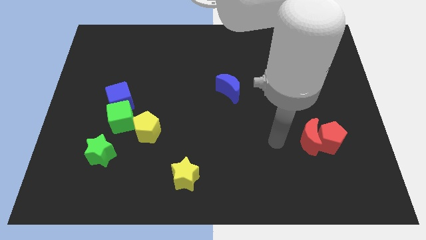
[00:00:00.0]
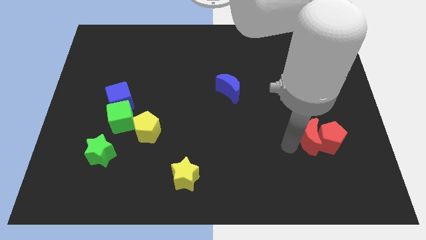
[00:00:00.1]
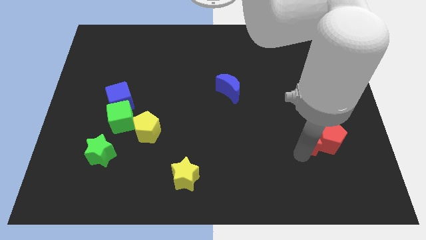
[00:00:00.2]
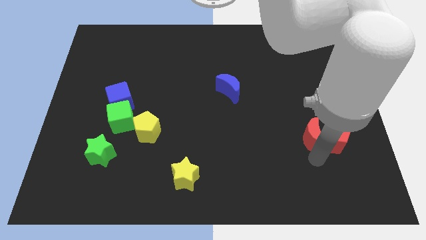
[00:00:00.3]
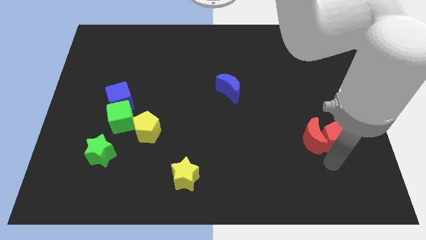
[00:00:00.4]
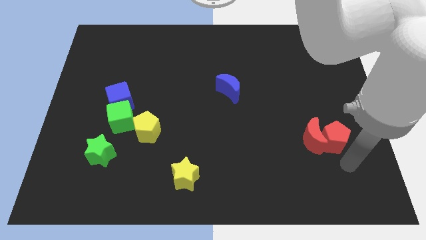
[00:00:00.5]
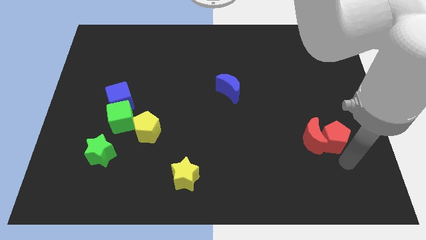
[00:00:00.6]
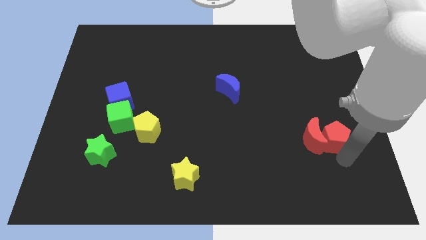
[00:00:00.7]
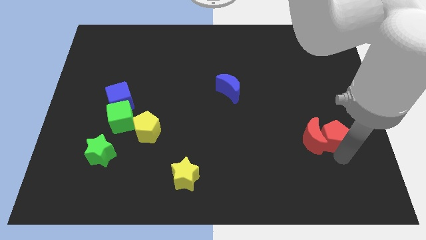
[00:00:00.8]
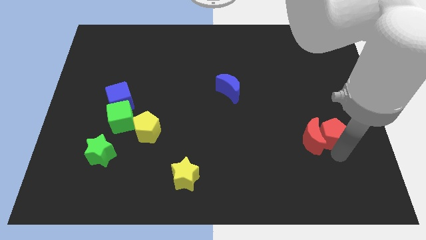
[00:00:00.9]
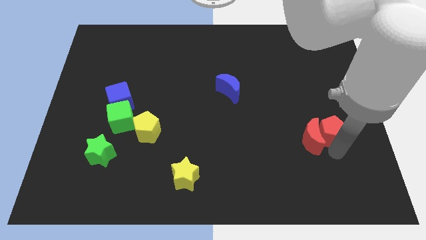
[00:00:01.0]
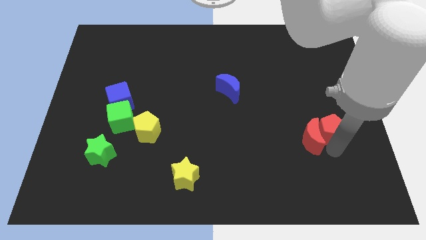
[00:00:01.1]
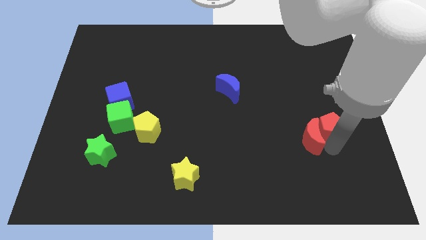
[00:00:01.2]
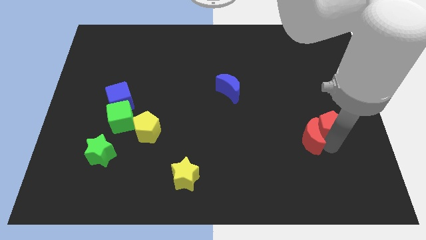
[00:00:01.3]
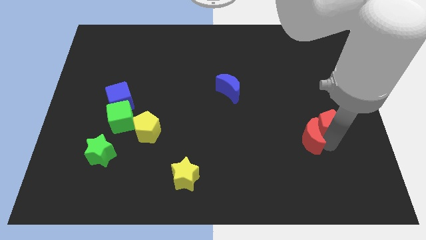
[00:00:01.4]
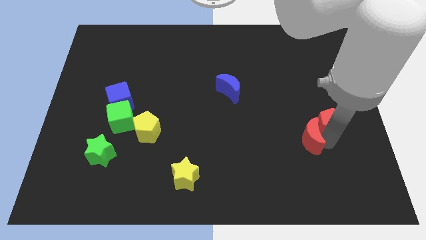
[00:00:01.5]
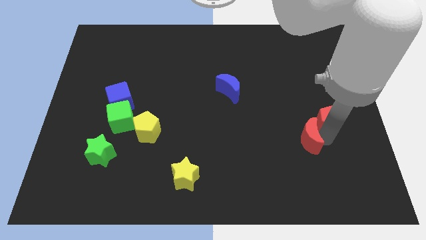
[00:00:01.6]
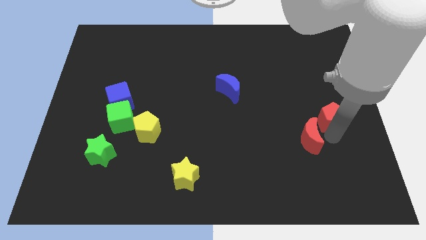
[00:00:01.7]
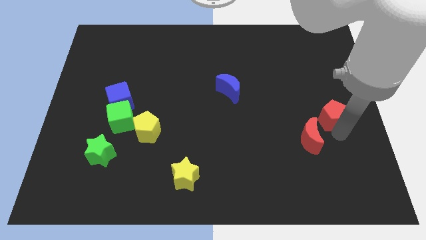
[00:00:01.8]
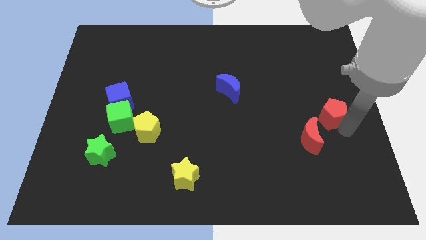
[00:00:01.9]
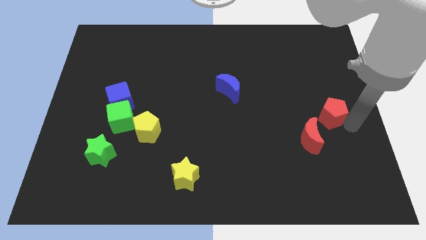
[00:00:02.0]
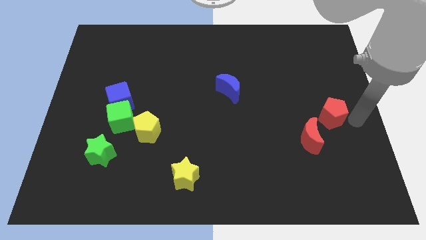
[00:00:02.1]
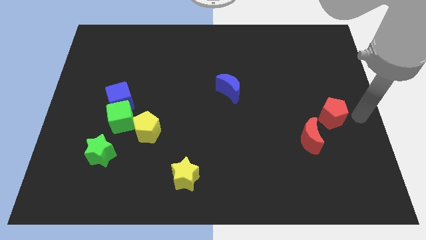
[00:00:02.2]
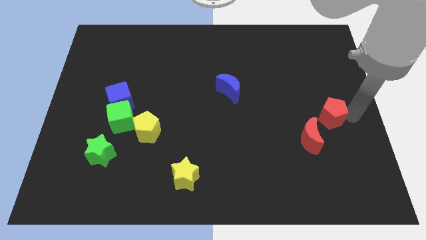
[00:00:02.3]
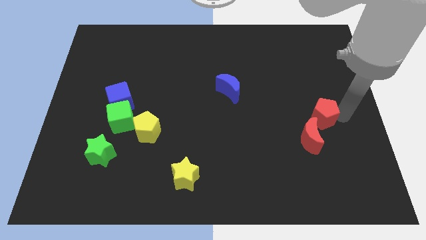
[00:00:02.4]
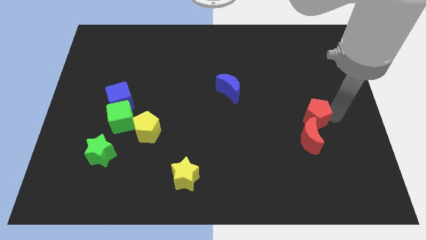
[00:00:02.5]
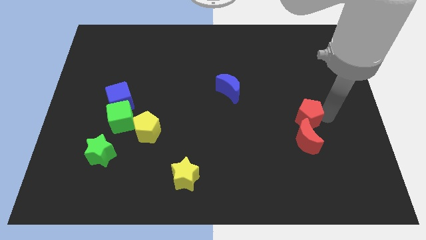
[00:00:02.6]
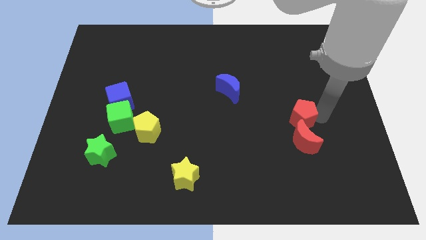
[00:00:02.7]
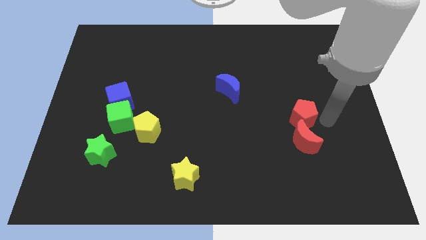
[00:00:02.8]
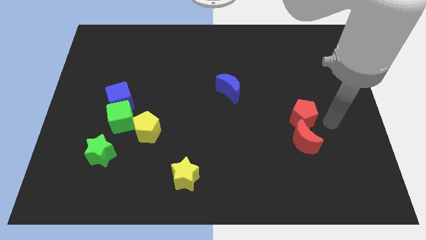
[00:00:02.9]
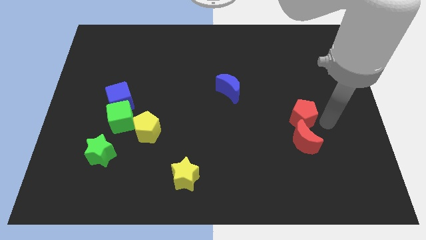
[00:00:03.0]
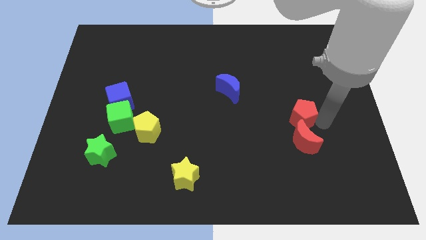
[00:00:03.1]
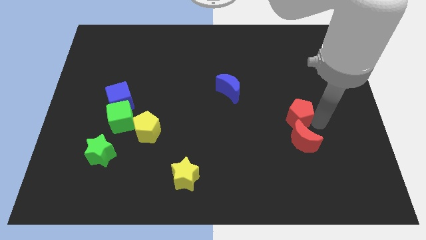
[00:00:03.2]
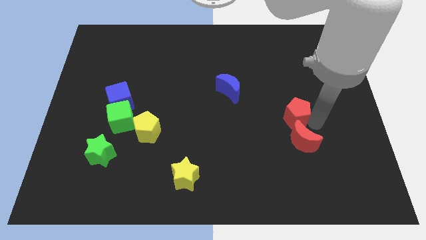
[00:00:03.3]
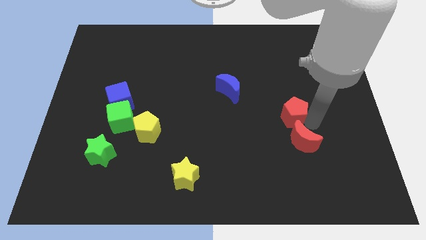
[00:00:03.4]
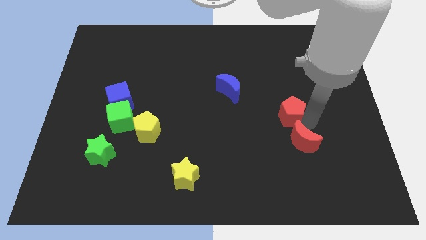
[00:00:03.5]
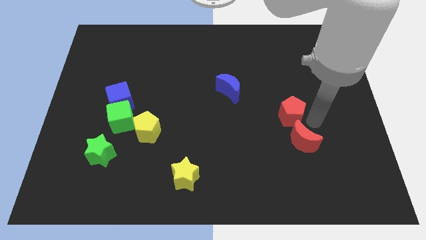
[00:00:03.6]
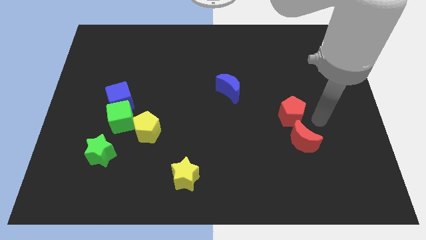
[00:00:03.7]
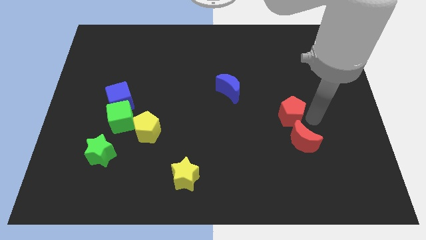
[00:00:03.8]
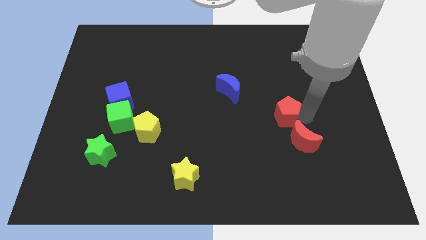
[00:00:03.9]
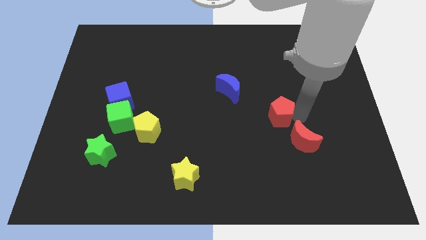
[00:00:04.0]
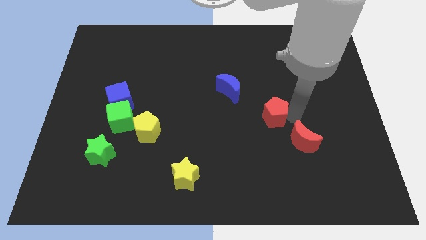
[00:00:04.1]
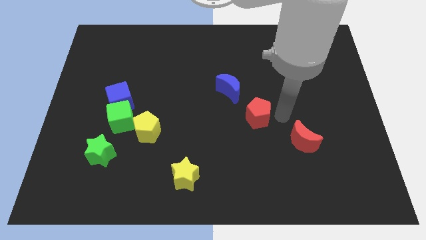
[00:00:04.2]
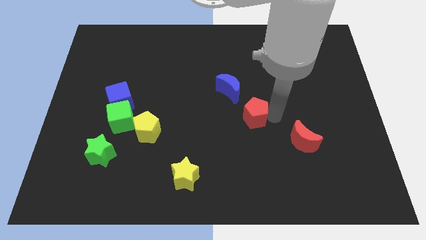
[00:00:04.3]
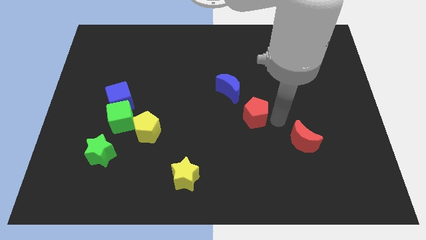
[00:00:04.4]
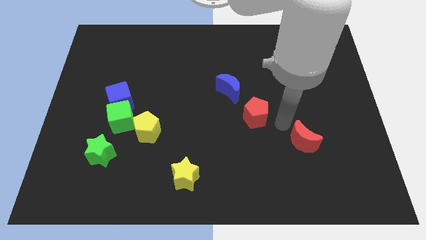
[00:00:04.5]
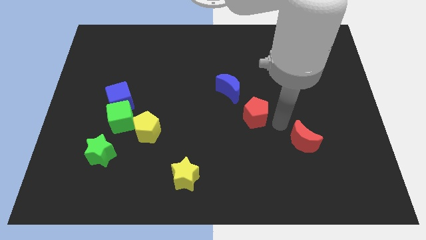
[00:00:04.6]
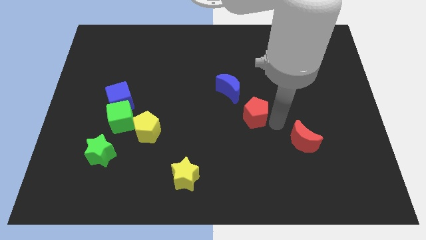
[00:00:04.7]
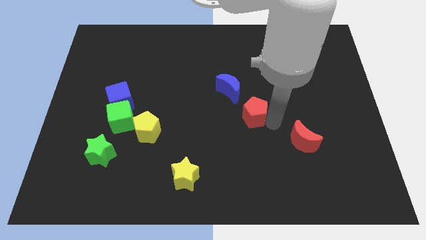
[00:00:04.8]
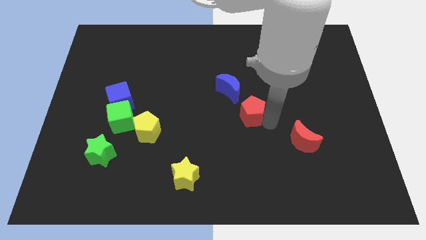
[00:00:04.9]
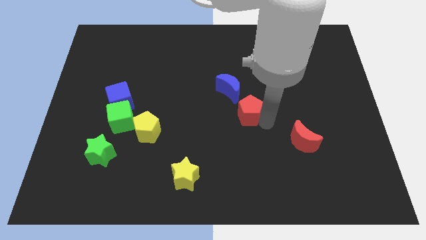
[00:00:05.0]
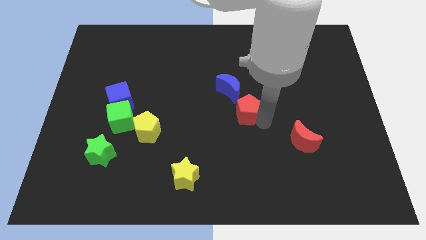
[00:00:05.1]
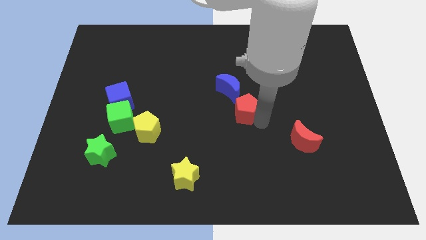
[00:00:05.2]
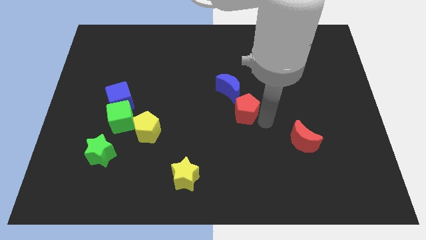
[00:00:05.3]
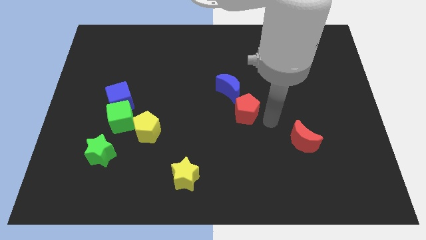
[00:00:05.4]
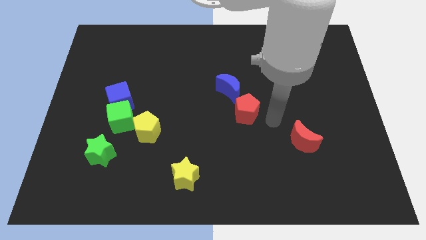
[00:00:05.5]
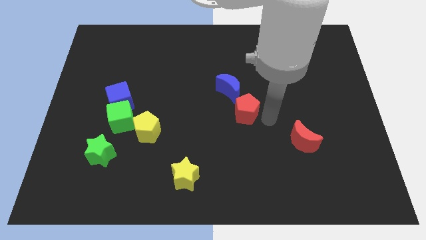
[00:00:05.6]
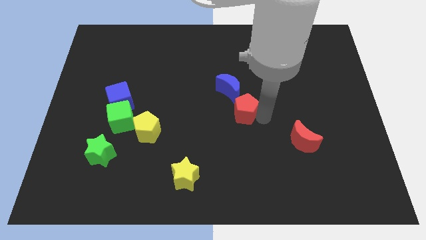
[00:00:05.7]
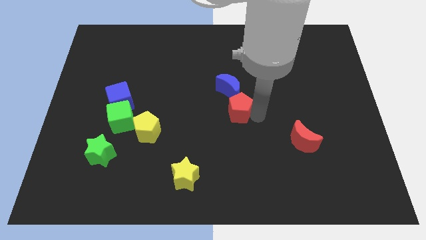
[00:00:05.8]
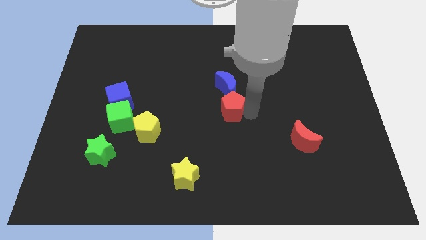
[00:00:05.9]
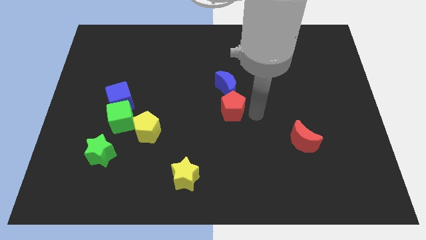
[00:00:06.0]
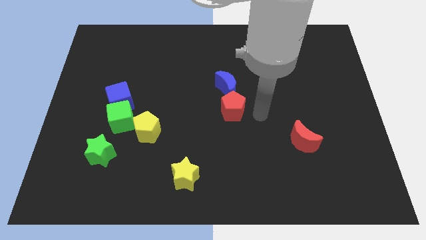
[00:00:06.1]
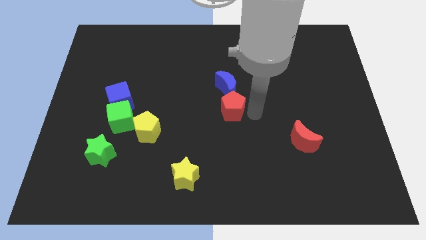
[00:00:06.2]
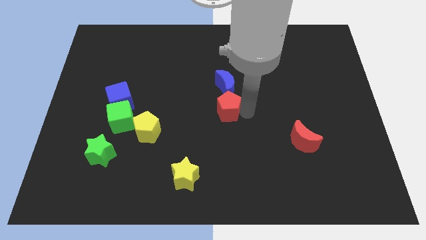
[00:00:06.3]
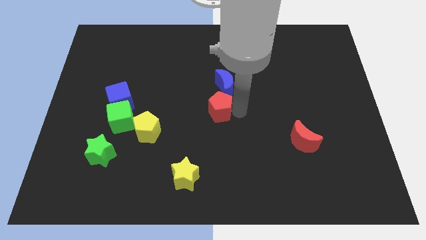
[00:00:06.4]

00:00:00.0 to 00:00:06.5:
push the red pentagon to the bottom left side of the blue moon
